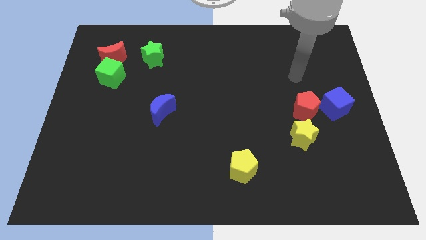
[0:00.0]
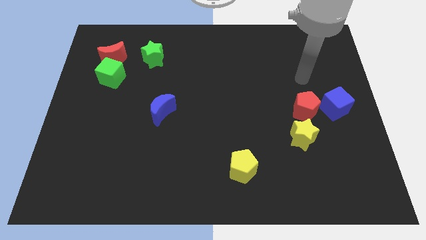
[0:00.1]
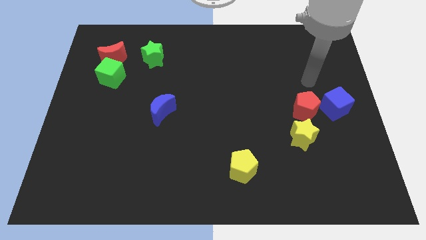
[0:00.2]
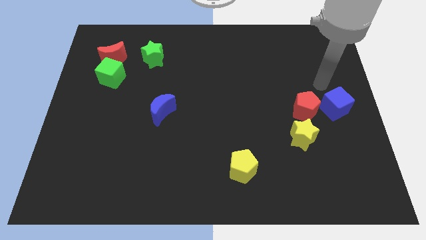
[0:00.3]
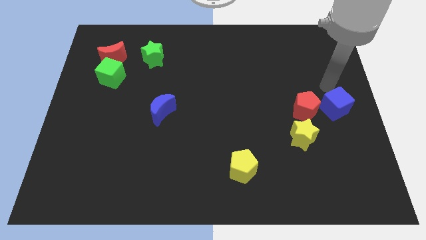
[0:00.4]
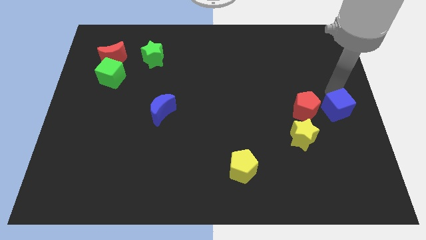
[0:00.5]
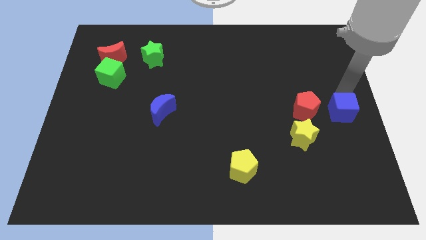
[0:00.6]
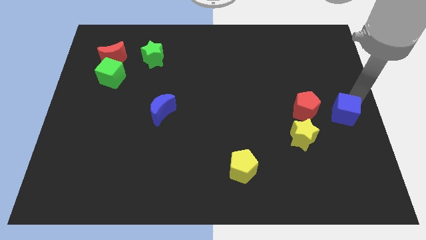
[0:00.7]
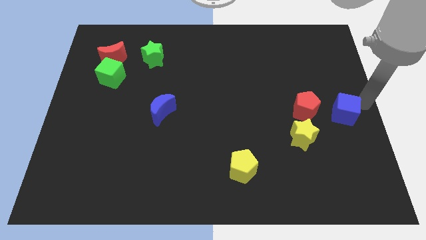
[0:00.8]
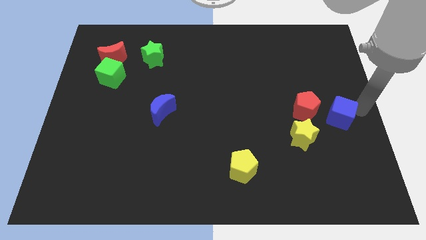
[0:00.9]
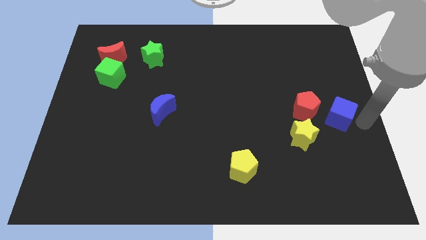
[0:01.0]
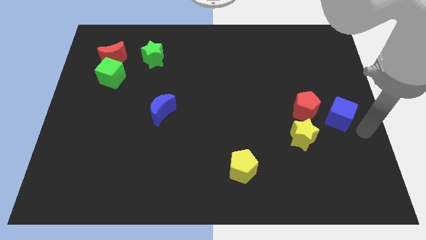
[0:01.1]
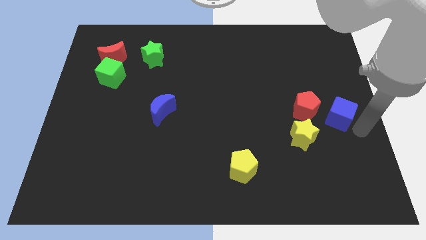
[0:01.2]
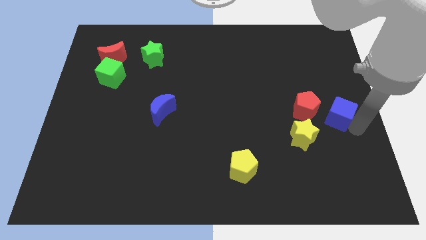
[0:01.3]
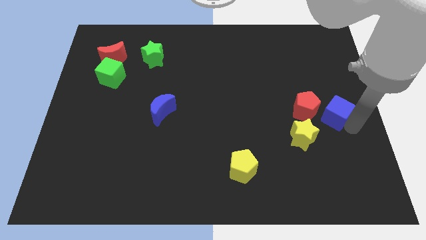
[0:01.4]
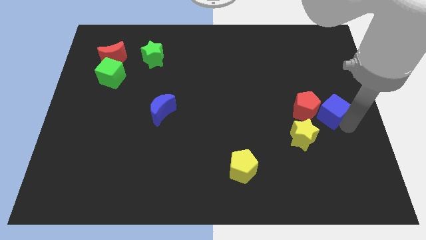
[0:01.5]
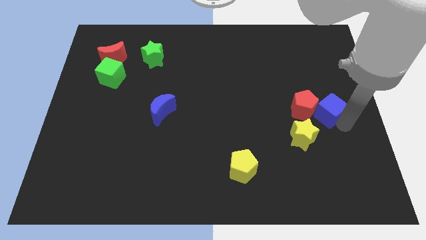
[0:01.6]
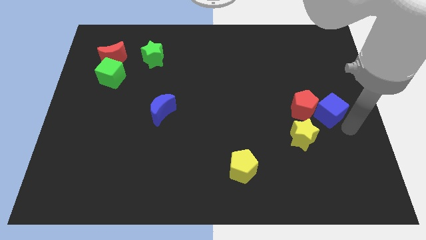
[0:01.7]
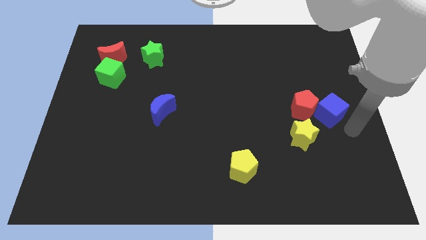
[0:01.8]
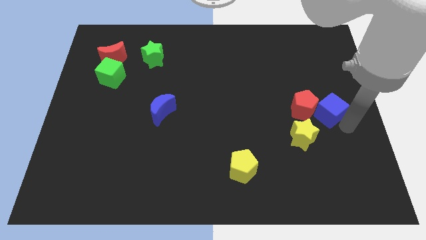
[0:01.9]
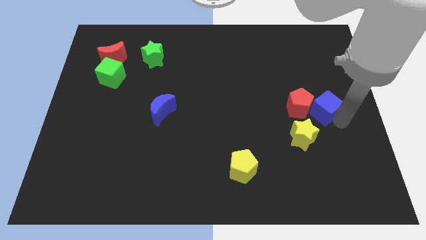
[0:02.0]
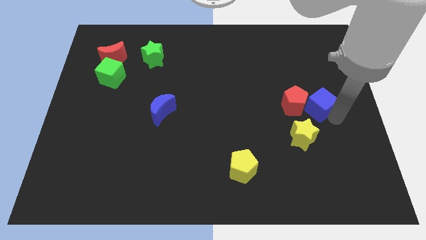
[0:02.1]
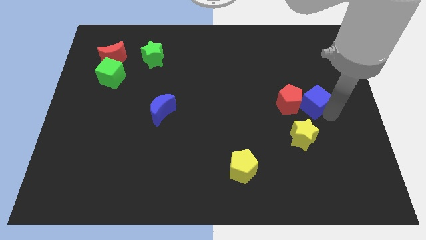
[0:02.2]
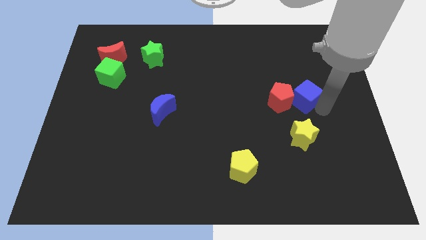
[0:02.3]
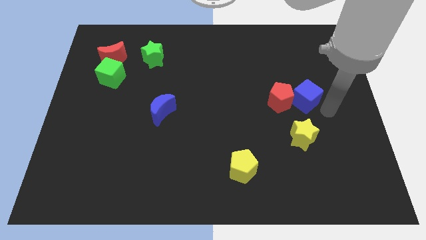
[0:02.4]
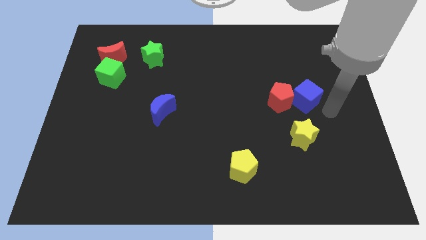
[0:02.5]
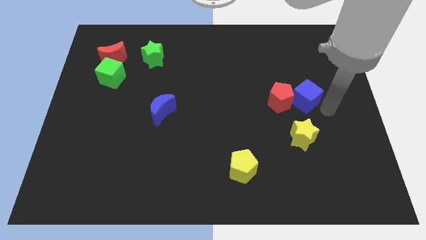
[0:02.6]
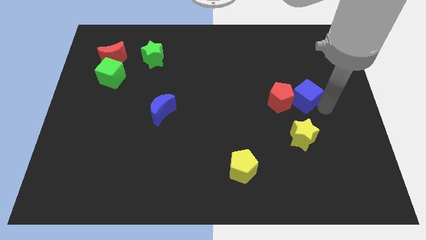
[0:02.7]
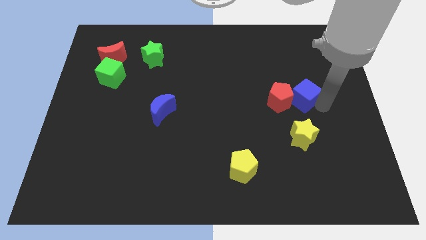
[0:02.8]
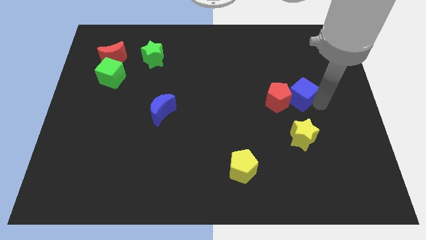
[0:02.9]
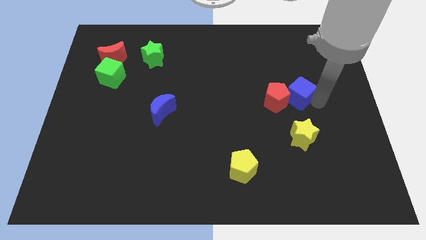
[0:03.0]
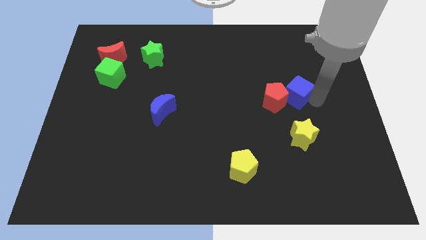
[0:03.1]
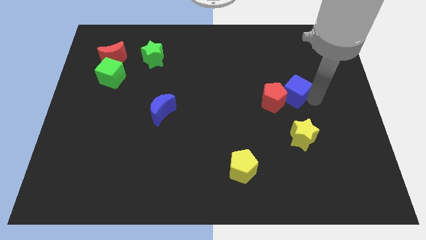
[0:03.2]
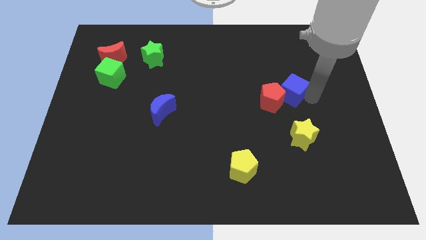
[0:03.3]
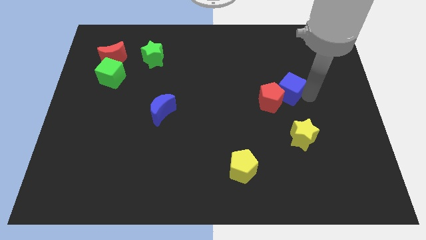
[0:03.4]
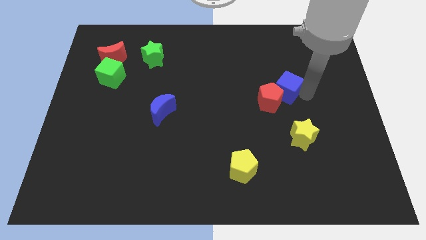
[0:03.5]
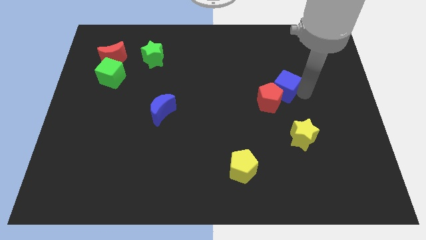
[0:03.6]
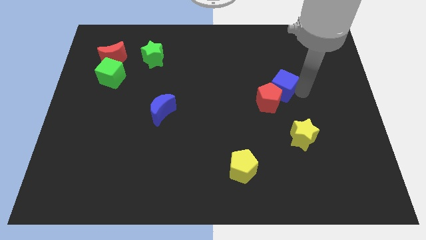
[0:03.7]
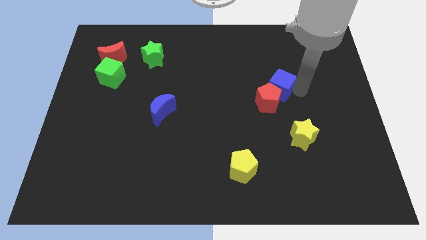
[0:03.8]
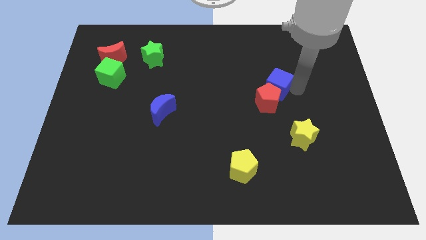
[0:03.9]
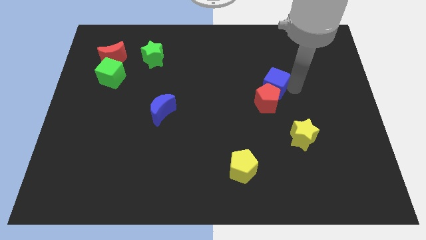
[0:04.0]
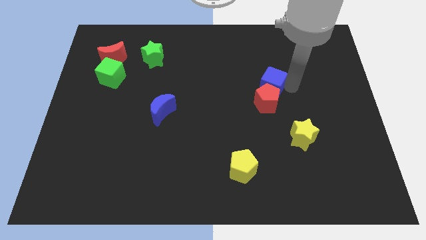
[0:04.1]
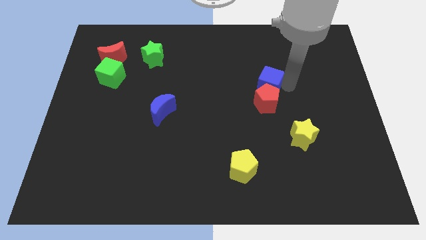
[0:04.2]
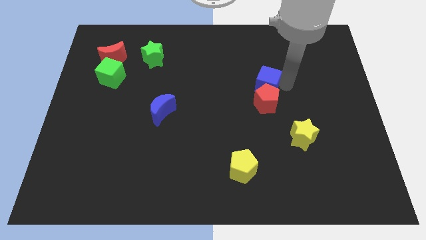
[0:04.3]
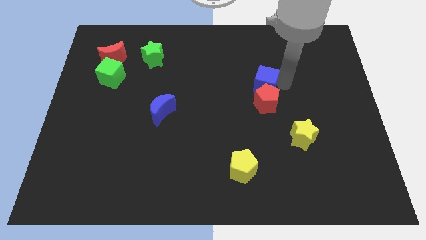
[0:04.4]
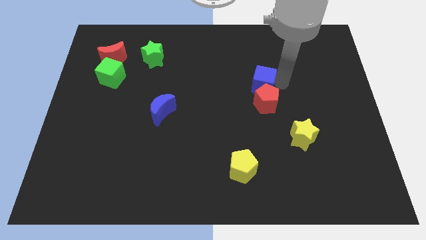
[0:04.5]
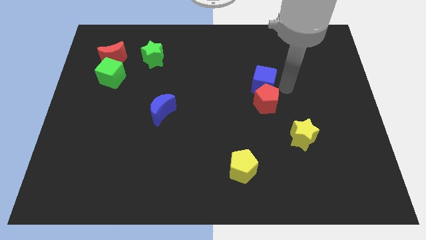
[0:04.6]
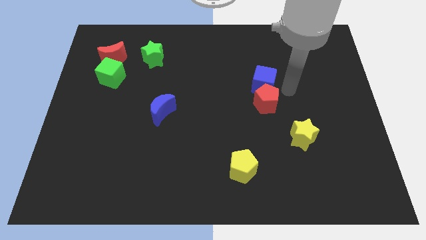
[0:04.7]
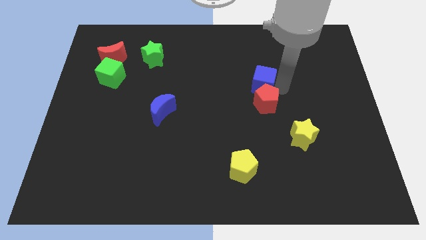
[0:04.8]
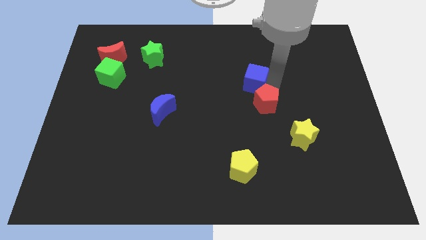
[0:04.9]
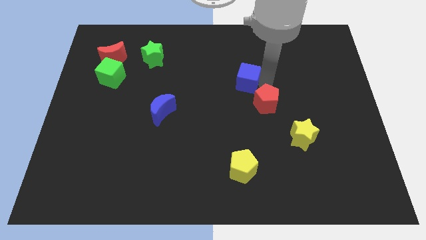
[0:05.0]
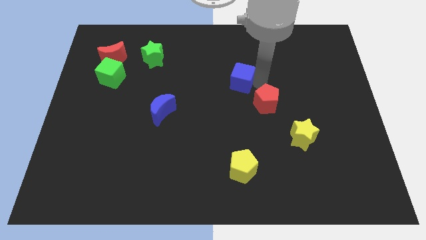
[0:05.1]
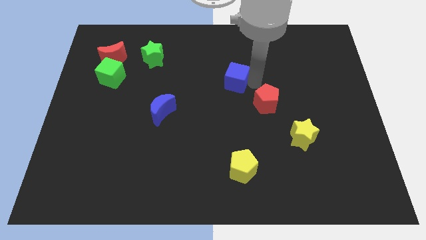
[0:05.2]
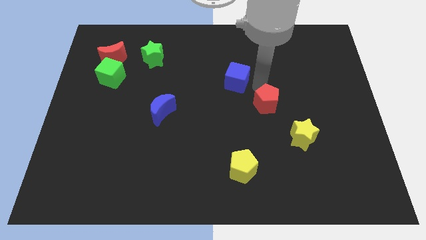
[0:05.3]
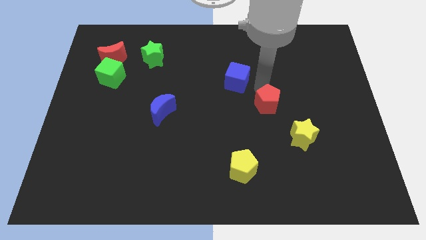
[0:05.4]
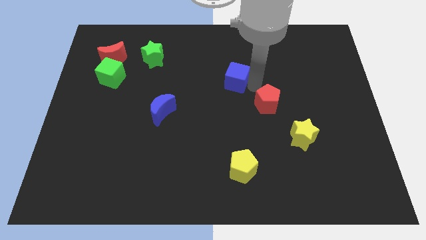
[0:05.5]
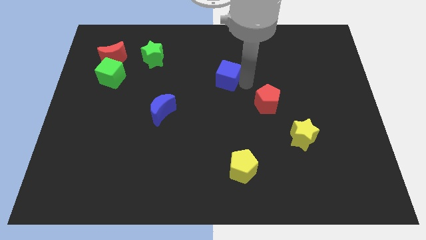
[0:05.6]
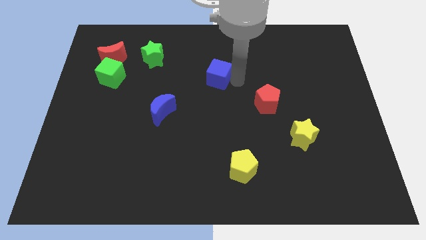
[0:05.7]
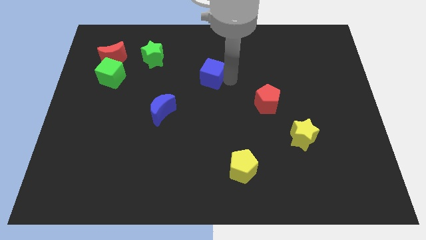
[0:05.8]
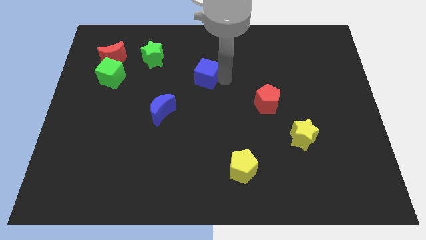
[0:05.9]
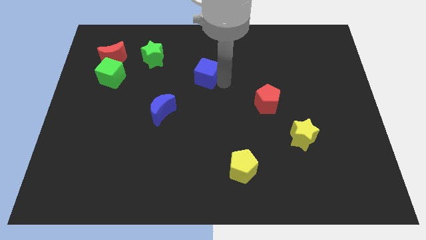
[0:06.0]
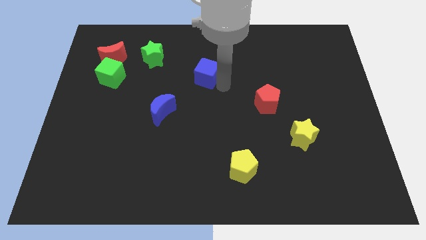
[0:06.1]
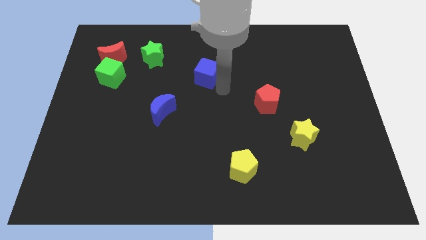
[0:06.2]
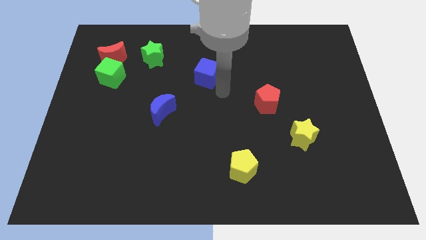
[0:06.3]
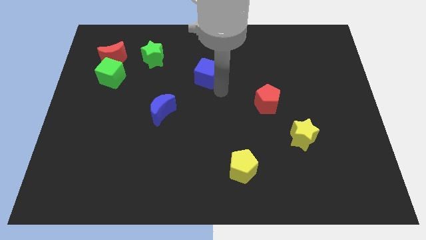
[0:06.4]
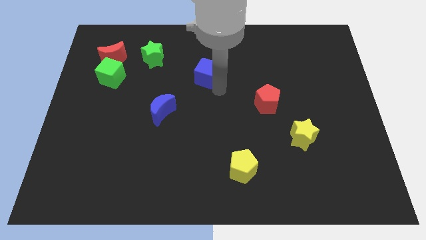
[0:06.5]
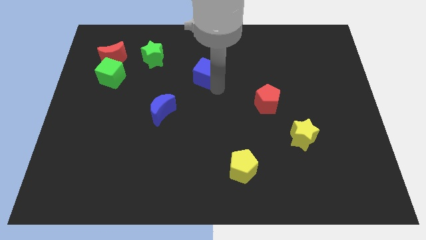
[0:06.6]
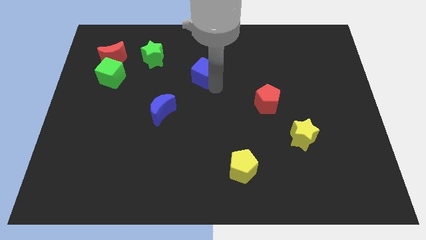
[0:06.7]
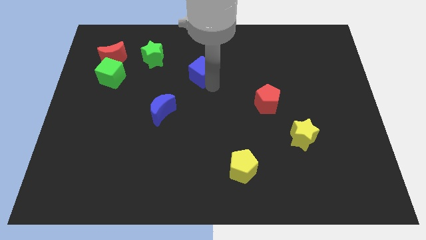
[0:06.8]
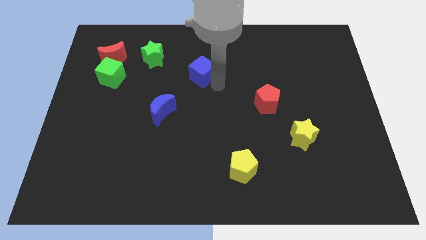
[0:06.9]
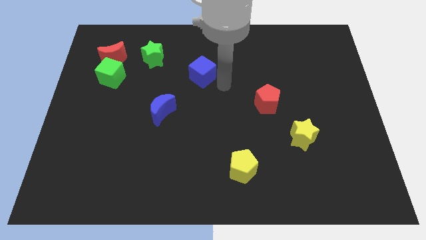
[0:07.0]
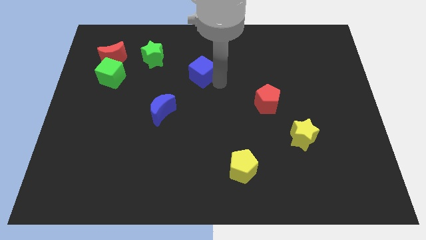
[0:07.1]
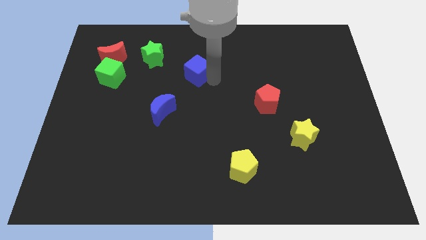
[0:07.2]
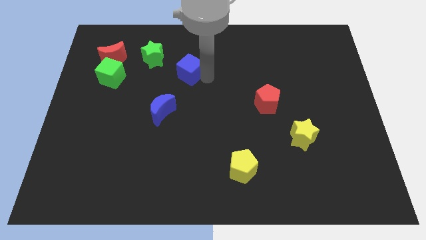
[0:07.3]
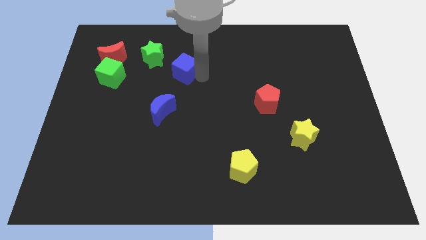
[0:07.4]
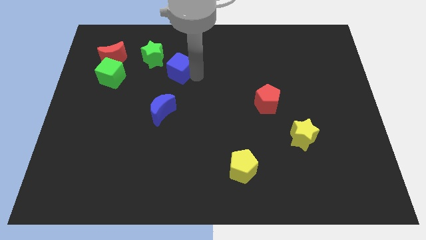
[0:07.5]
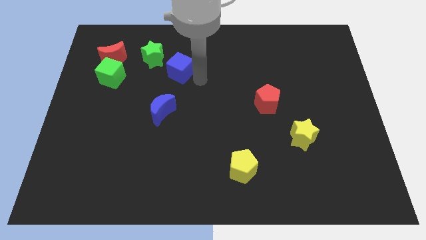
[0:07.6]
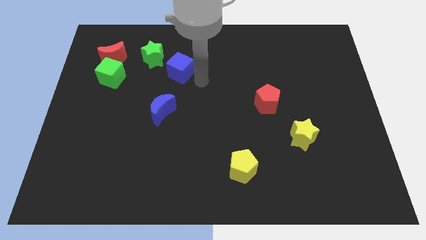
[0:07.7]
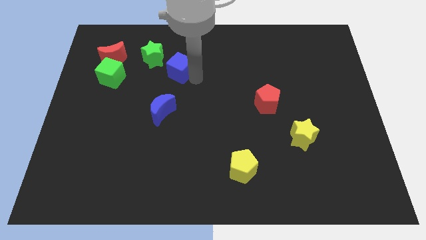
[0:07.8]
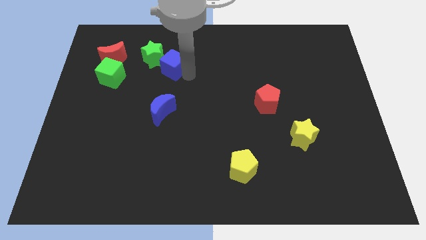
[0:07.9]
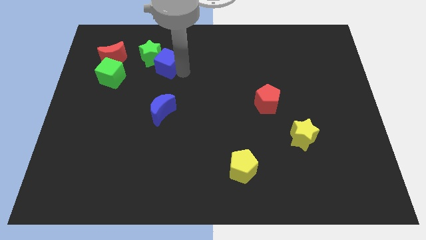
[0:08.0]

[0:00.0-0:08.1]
put the blue cube next to the green star

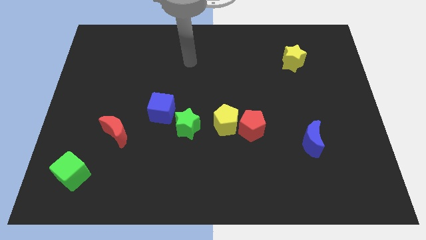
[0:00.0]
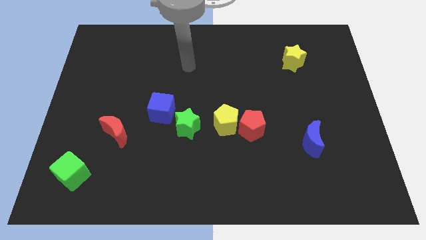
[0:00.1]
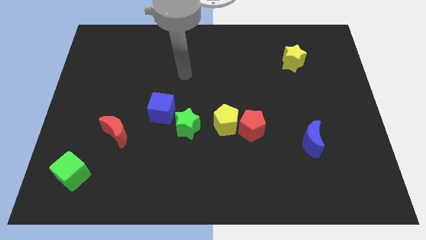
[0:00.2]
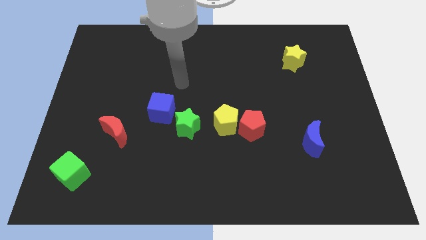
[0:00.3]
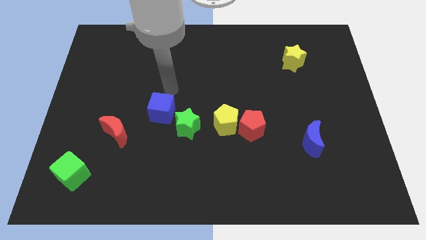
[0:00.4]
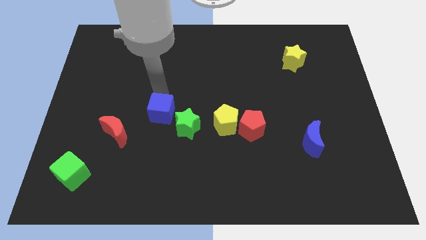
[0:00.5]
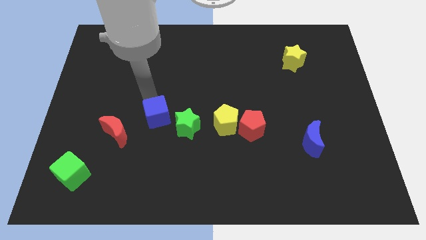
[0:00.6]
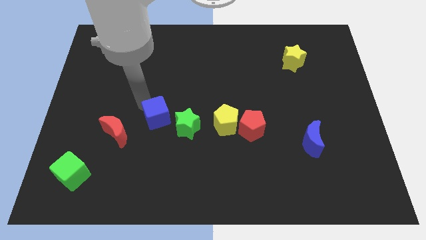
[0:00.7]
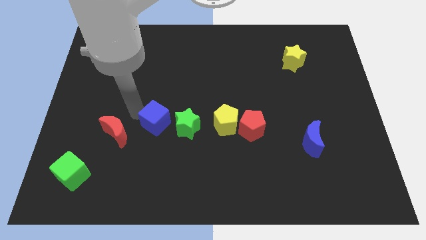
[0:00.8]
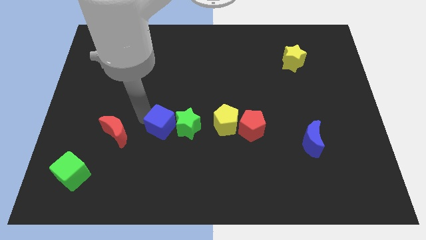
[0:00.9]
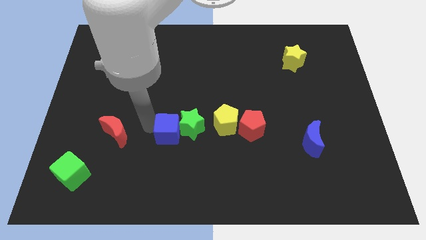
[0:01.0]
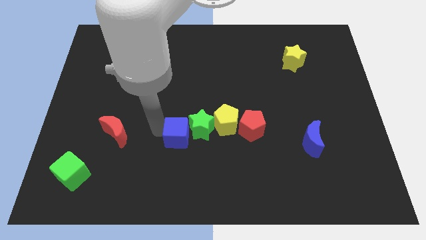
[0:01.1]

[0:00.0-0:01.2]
slide the green star close to the yellow pentagon
